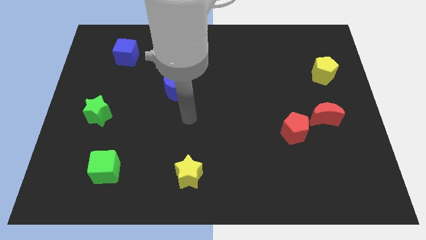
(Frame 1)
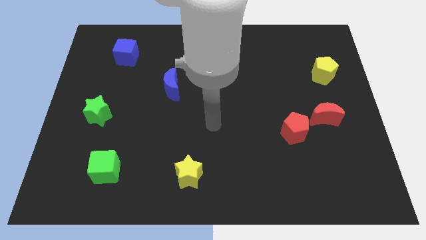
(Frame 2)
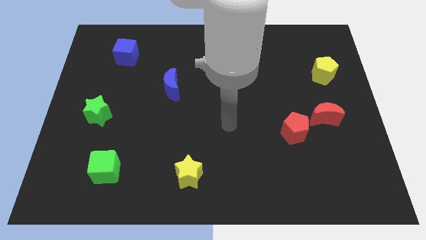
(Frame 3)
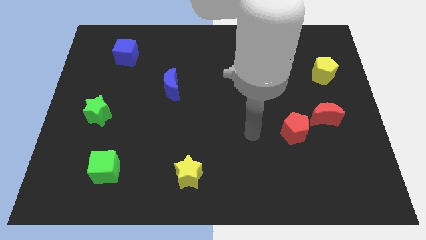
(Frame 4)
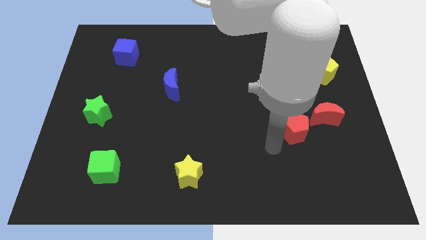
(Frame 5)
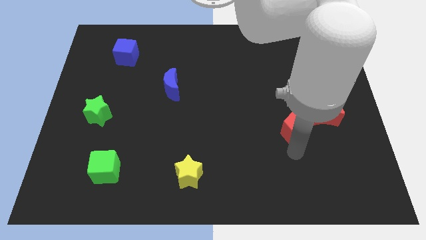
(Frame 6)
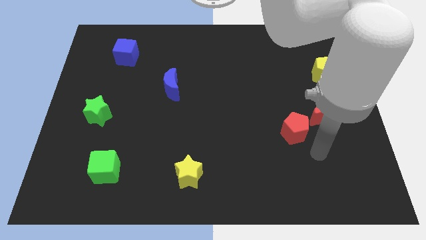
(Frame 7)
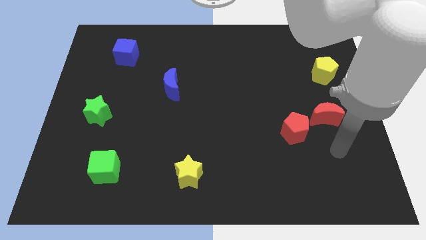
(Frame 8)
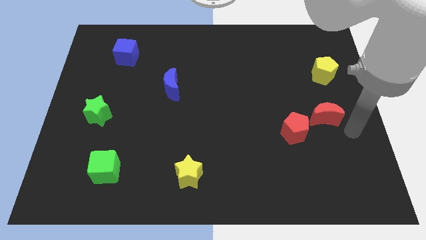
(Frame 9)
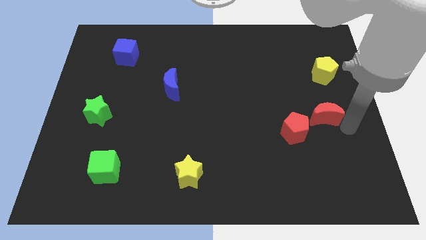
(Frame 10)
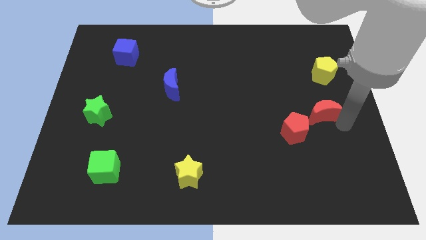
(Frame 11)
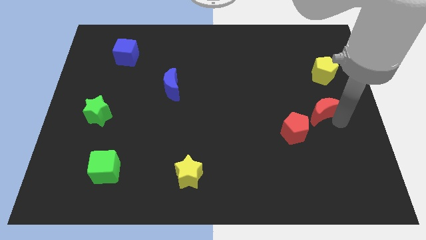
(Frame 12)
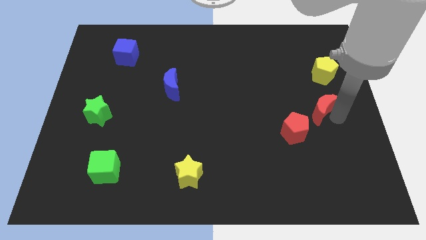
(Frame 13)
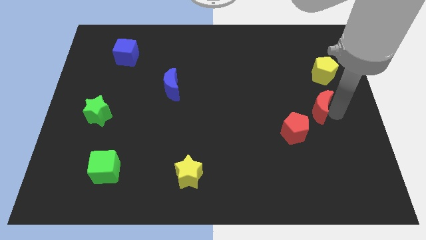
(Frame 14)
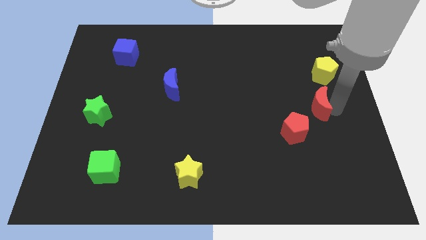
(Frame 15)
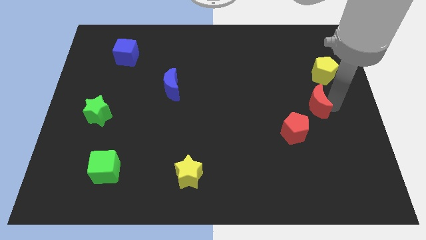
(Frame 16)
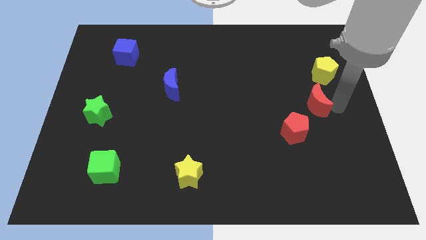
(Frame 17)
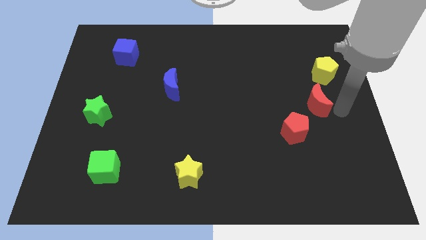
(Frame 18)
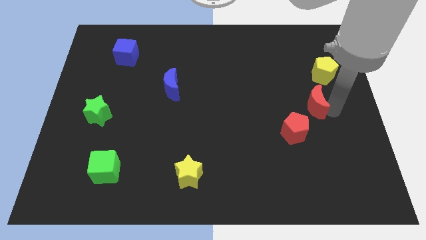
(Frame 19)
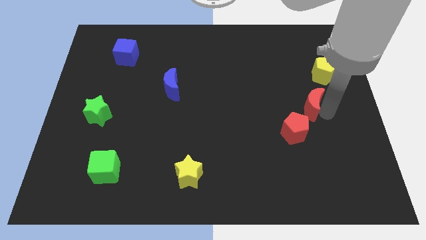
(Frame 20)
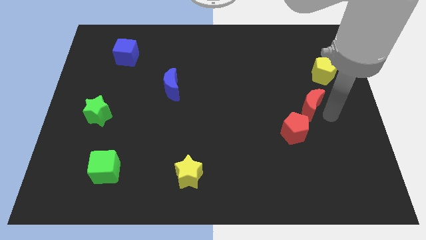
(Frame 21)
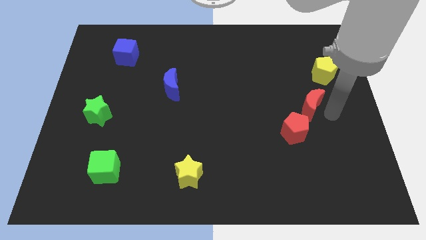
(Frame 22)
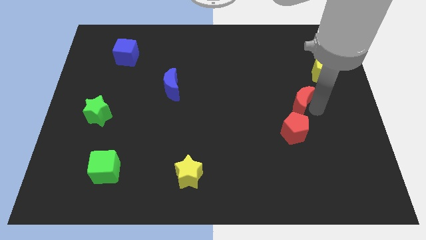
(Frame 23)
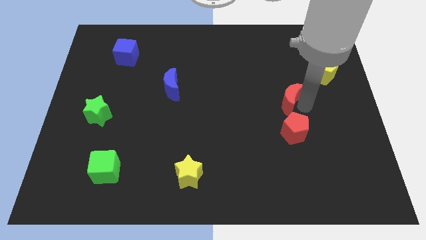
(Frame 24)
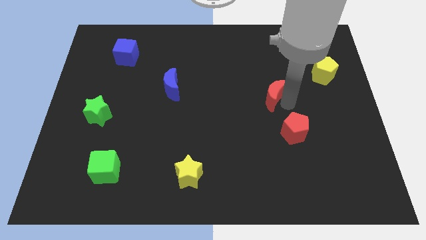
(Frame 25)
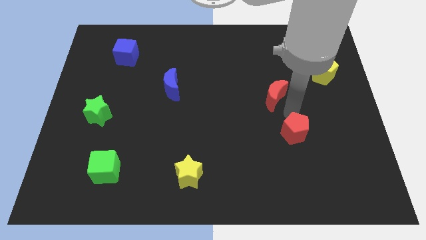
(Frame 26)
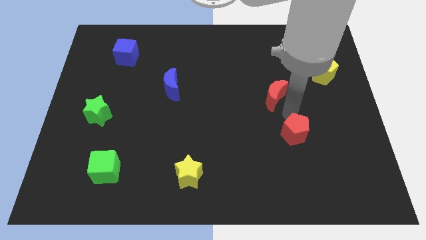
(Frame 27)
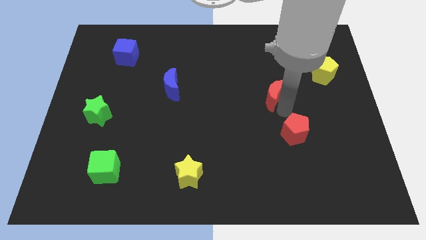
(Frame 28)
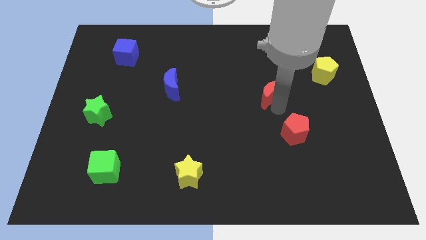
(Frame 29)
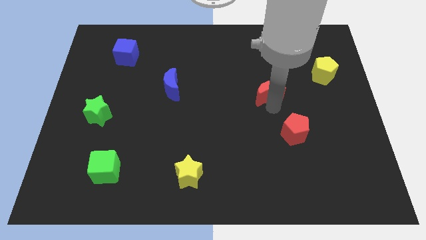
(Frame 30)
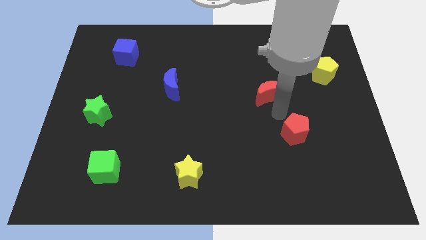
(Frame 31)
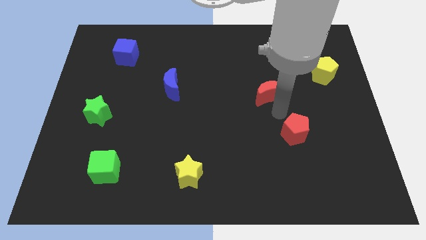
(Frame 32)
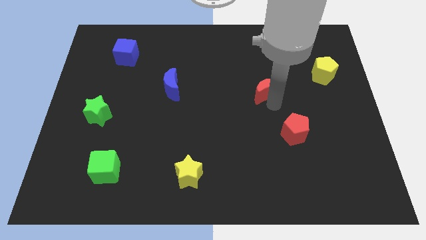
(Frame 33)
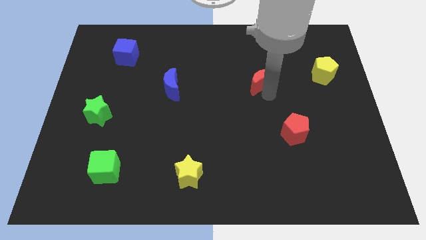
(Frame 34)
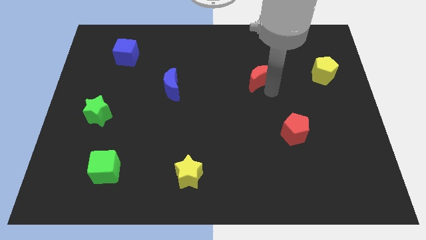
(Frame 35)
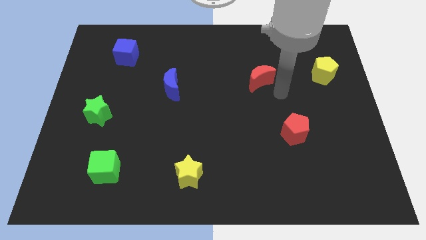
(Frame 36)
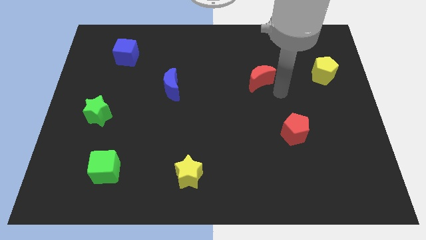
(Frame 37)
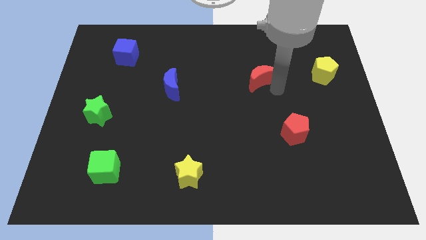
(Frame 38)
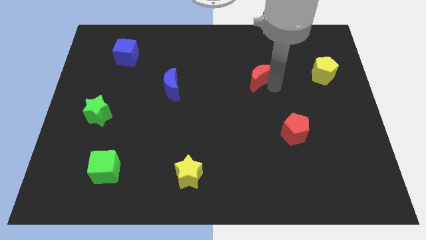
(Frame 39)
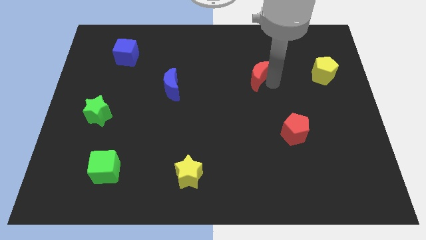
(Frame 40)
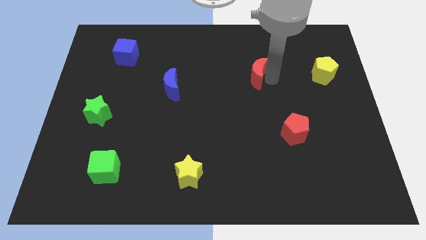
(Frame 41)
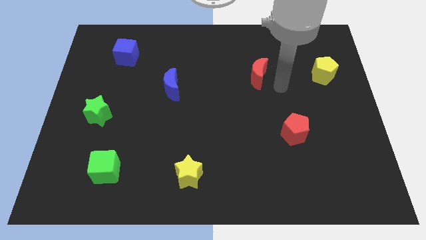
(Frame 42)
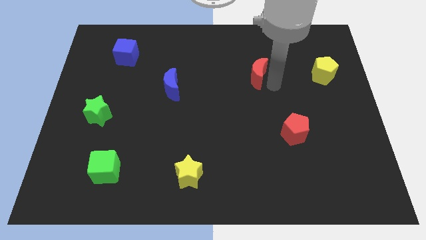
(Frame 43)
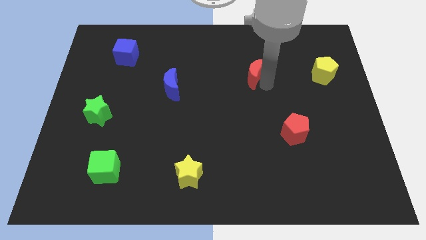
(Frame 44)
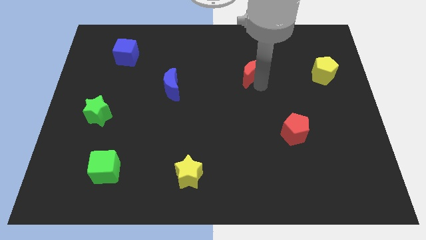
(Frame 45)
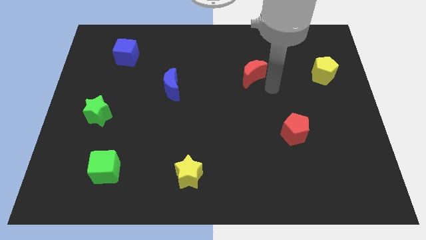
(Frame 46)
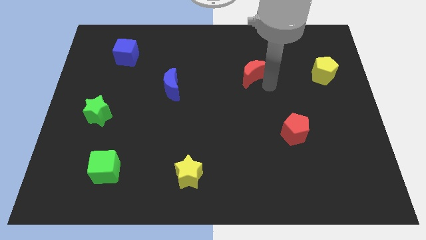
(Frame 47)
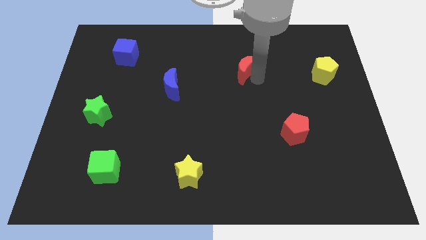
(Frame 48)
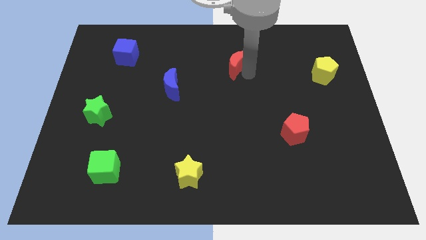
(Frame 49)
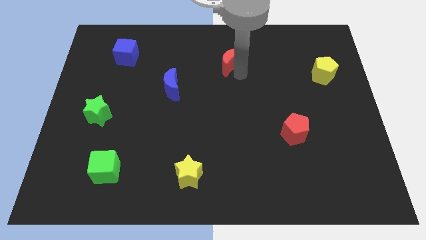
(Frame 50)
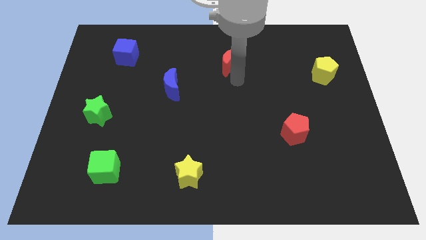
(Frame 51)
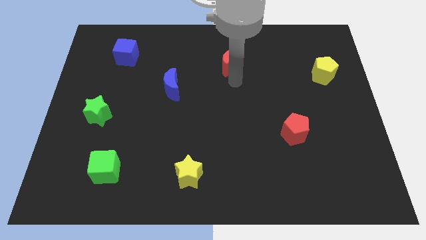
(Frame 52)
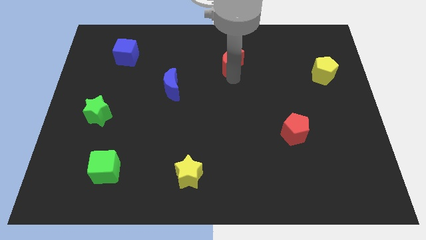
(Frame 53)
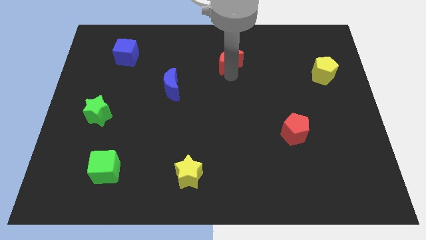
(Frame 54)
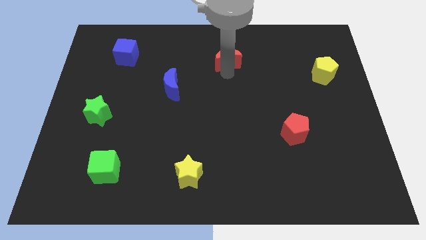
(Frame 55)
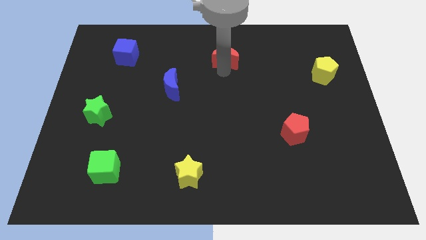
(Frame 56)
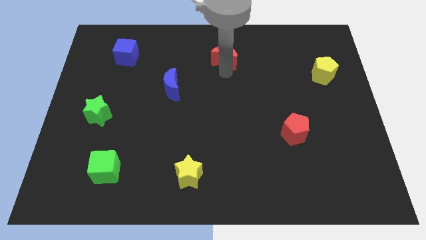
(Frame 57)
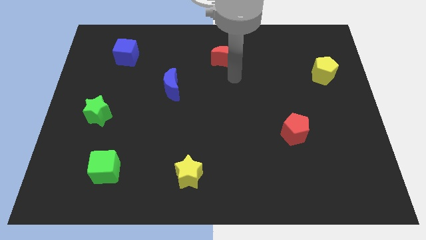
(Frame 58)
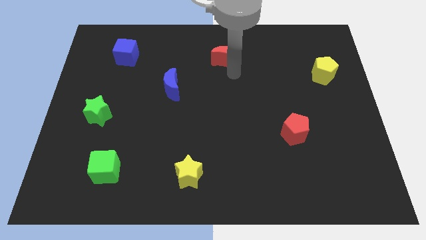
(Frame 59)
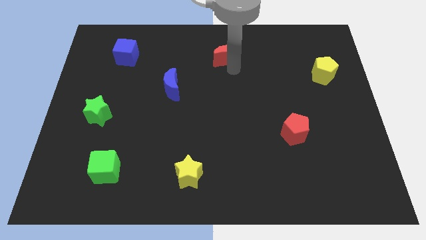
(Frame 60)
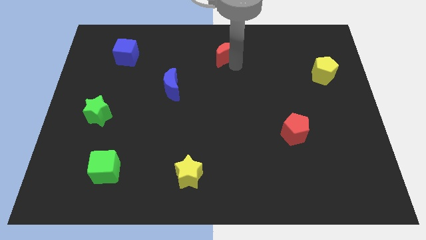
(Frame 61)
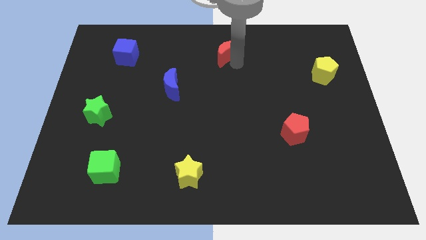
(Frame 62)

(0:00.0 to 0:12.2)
move the red moon to the top side
